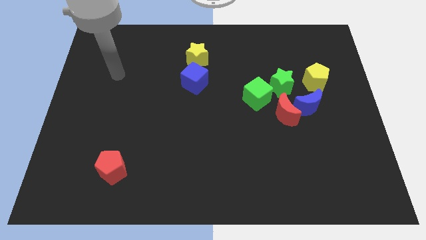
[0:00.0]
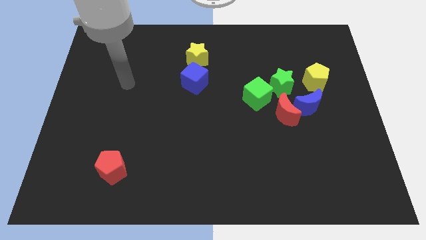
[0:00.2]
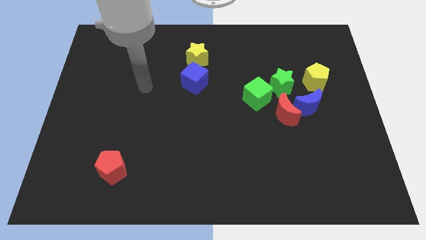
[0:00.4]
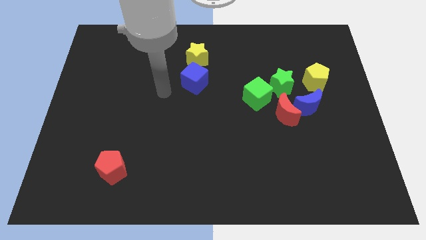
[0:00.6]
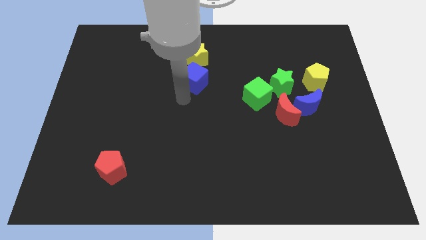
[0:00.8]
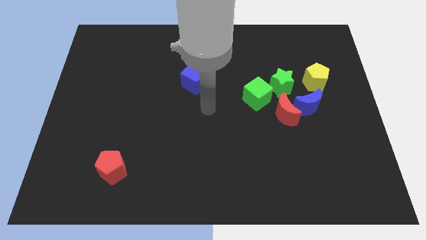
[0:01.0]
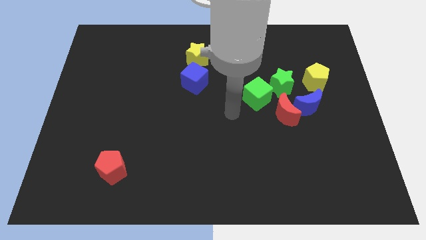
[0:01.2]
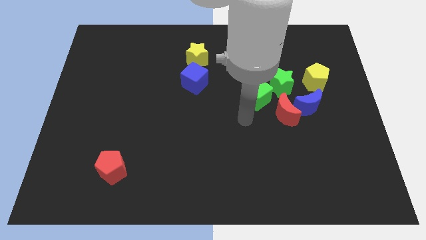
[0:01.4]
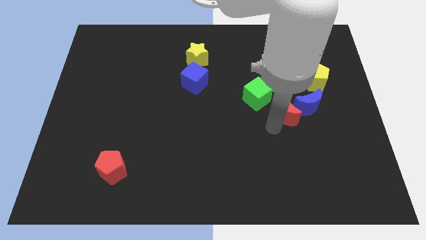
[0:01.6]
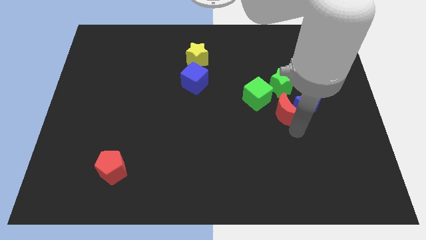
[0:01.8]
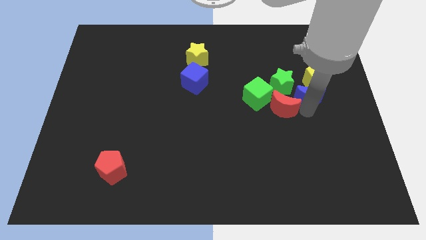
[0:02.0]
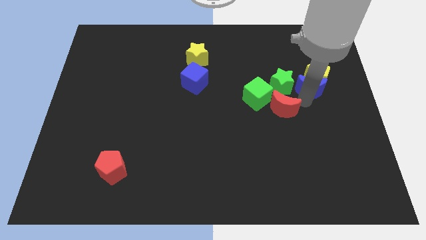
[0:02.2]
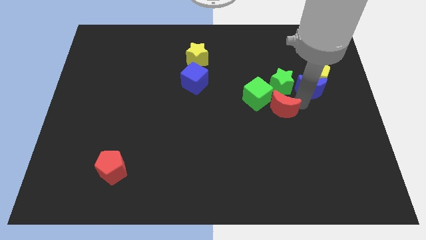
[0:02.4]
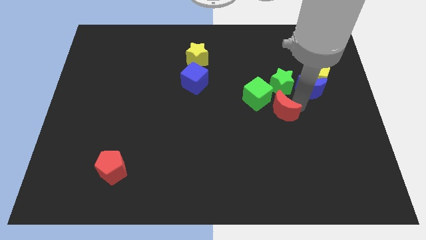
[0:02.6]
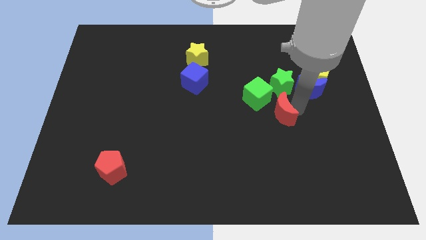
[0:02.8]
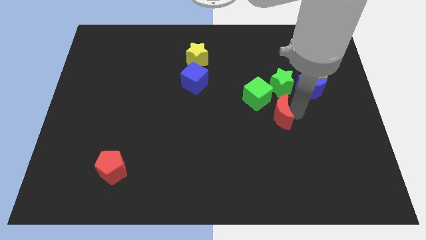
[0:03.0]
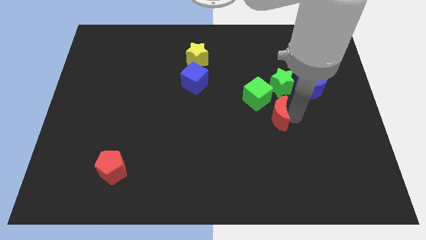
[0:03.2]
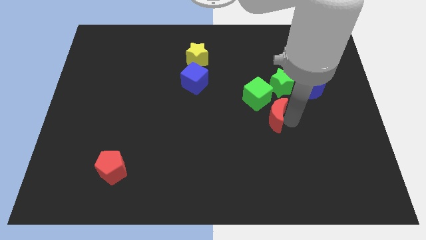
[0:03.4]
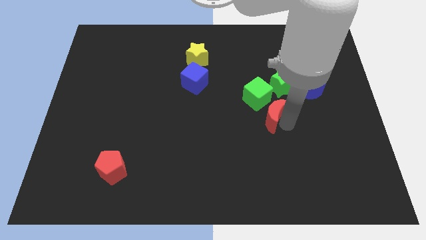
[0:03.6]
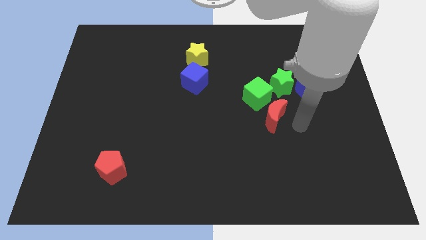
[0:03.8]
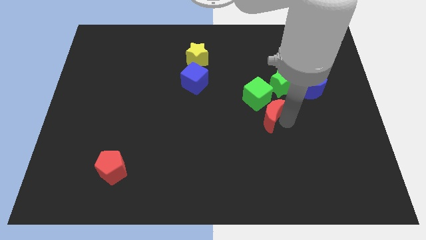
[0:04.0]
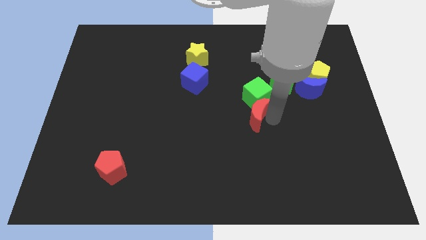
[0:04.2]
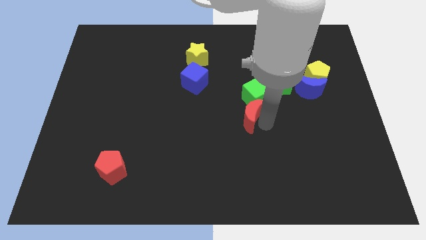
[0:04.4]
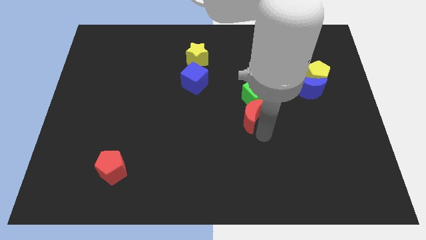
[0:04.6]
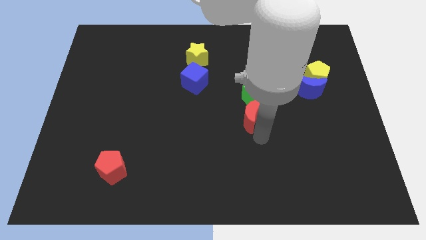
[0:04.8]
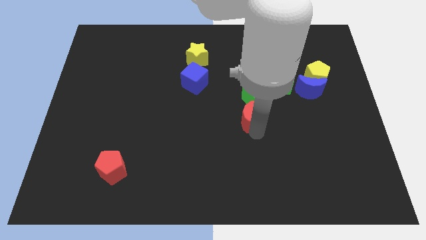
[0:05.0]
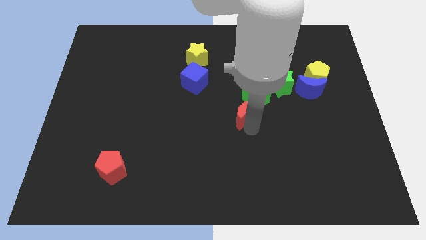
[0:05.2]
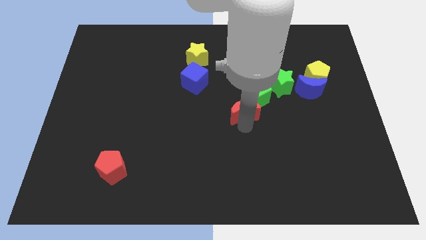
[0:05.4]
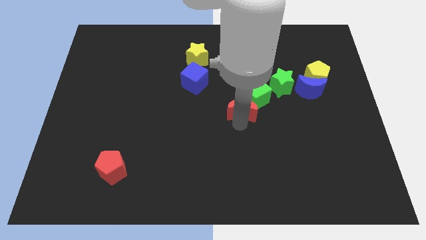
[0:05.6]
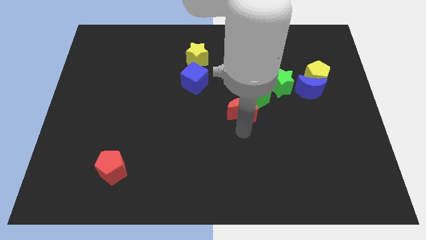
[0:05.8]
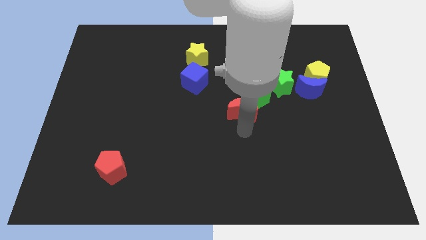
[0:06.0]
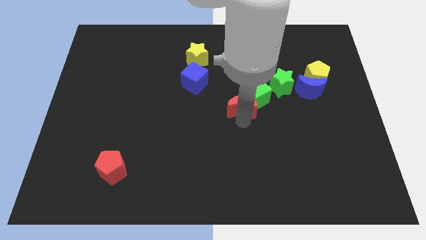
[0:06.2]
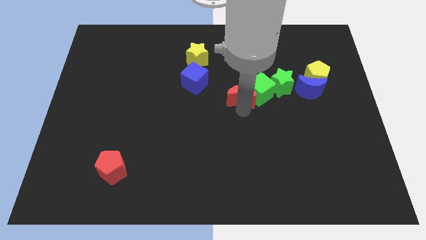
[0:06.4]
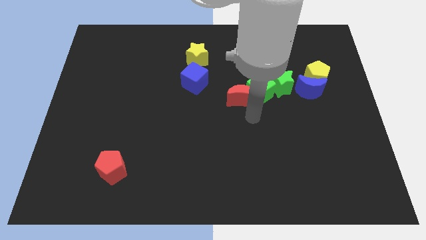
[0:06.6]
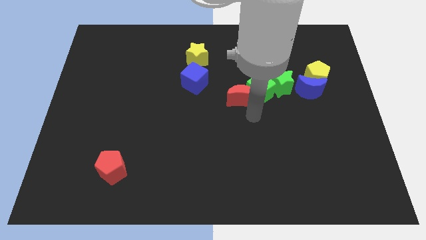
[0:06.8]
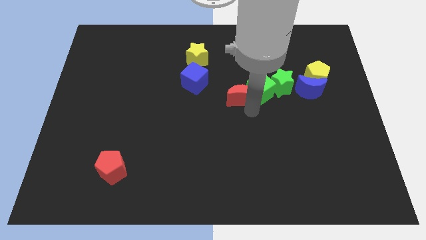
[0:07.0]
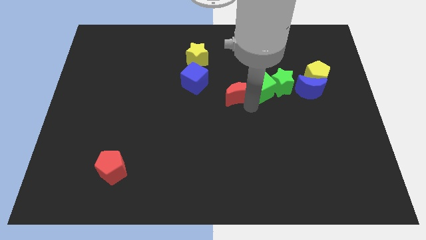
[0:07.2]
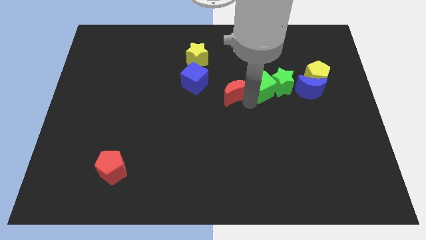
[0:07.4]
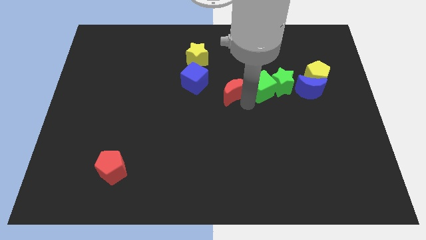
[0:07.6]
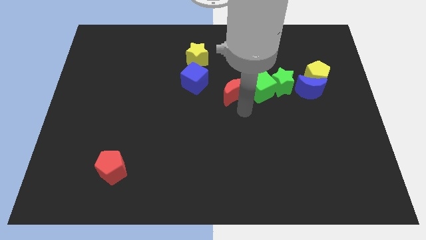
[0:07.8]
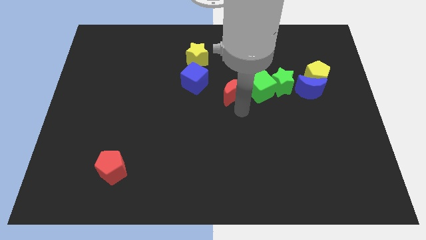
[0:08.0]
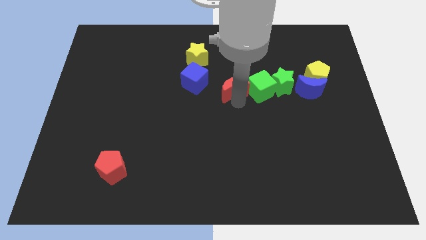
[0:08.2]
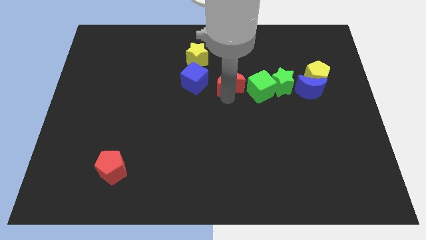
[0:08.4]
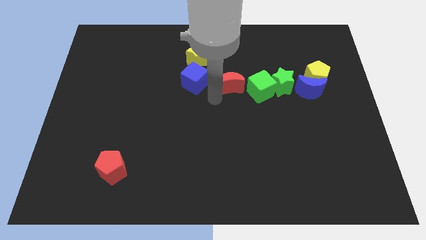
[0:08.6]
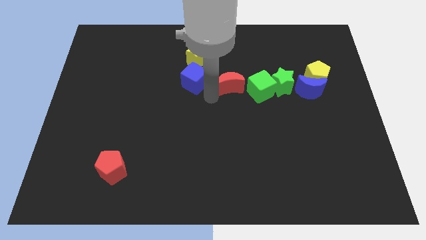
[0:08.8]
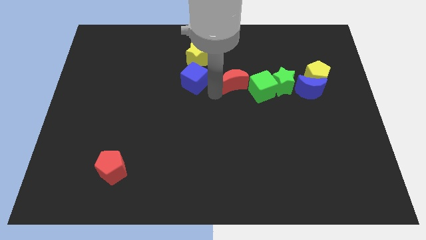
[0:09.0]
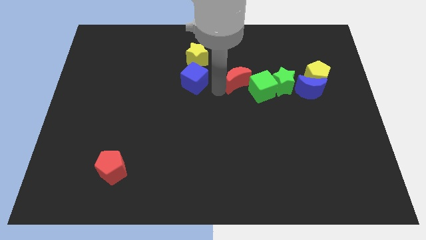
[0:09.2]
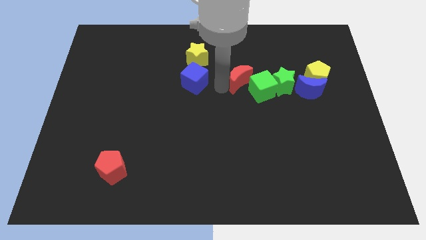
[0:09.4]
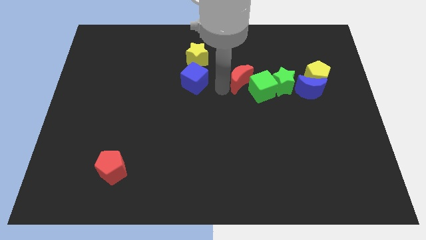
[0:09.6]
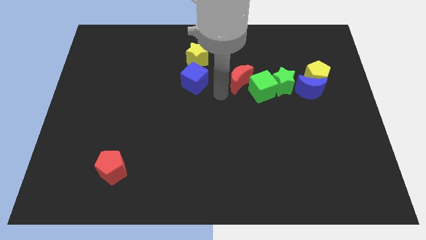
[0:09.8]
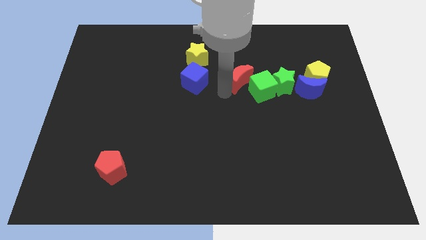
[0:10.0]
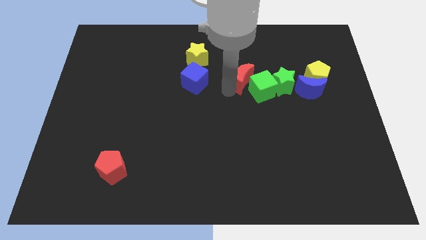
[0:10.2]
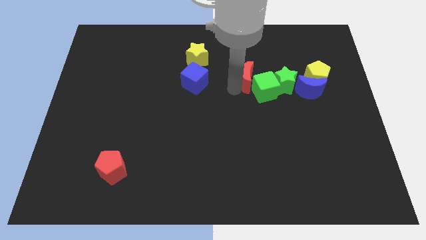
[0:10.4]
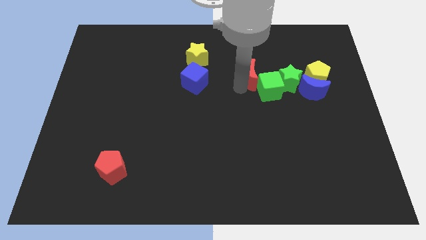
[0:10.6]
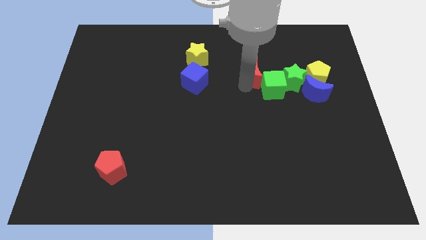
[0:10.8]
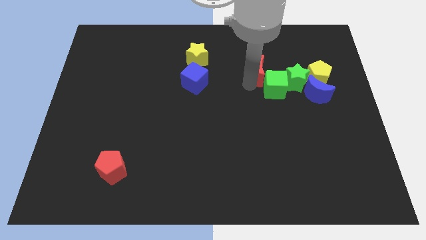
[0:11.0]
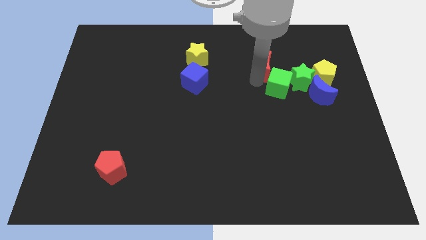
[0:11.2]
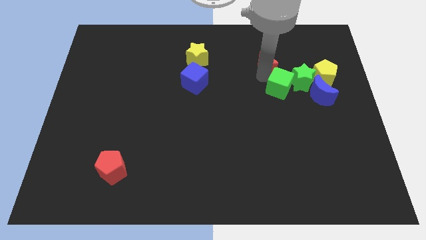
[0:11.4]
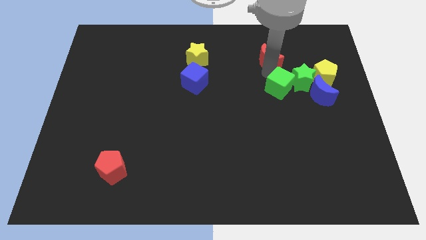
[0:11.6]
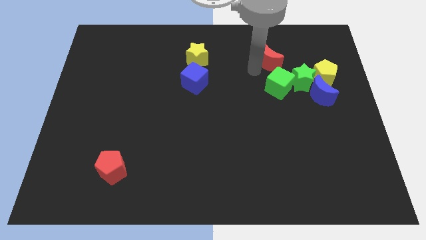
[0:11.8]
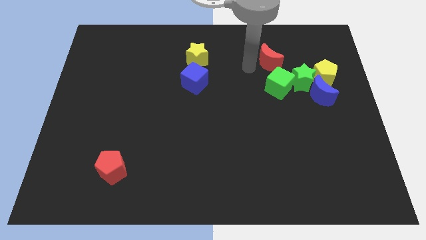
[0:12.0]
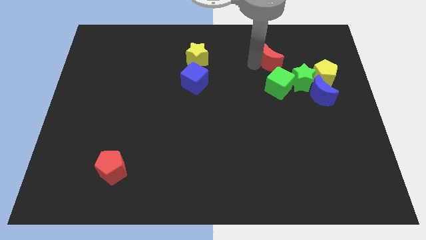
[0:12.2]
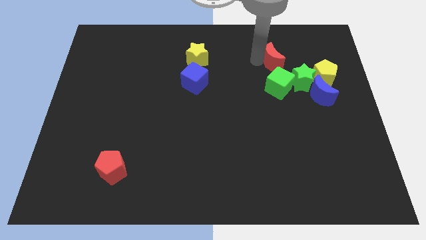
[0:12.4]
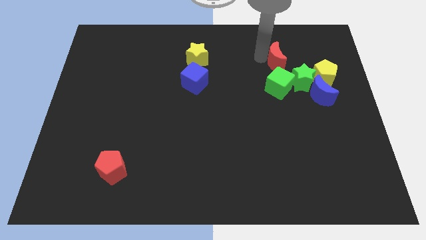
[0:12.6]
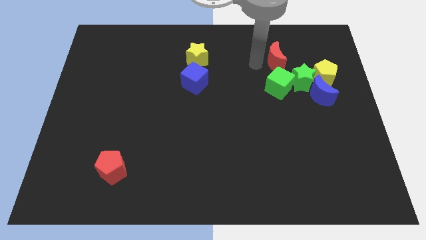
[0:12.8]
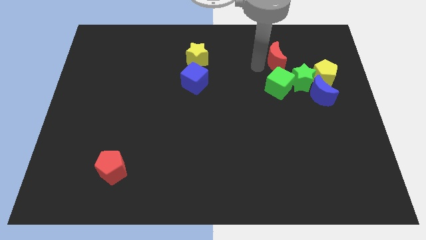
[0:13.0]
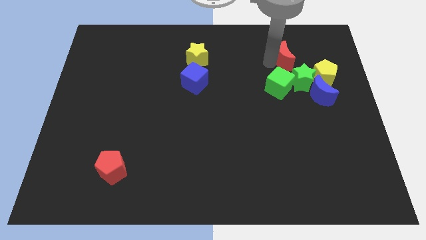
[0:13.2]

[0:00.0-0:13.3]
push the red moon above the green star

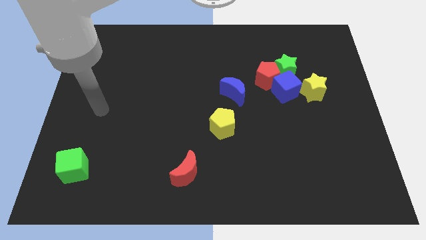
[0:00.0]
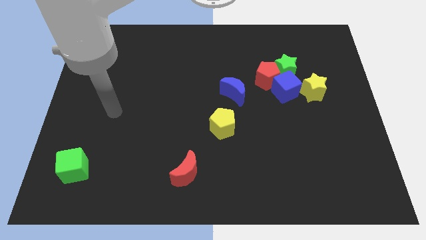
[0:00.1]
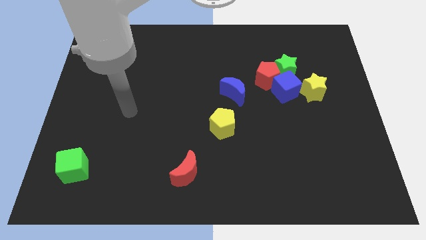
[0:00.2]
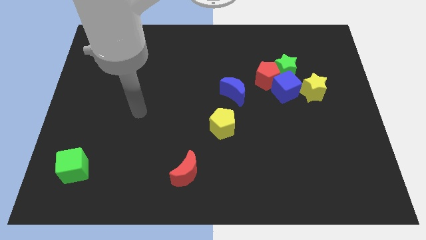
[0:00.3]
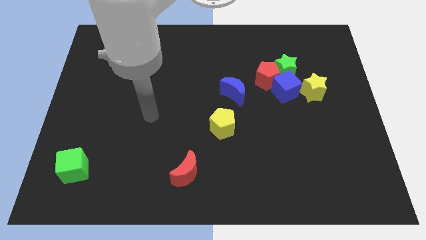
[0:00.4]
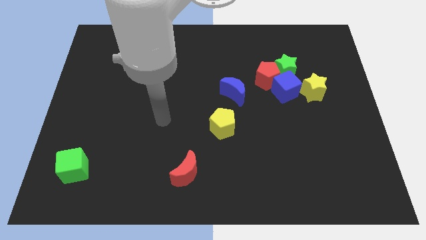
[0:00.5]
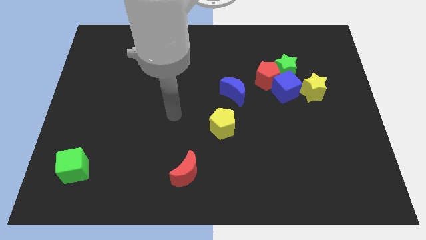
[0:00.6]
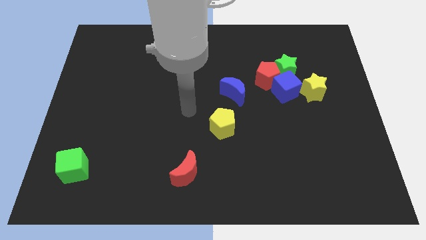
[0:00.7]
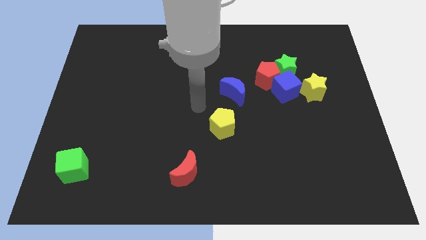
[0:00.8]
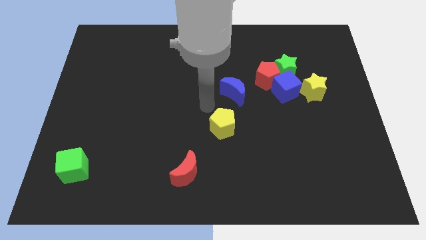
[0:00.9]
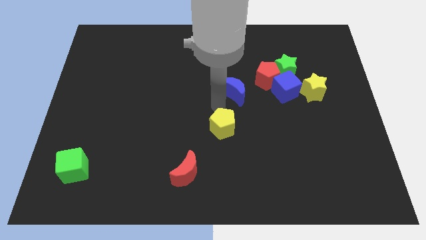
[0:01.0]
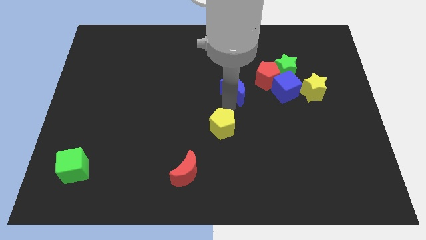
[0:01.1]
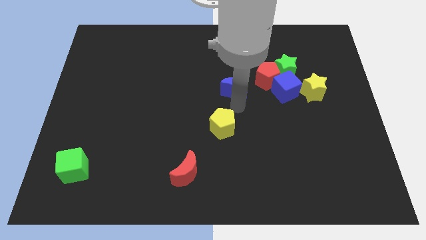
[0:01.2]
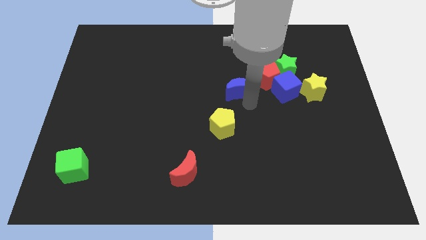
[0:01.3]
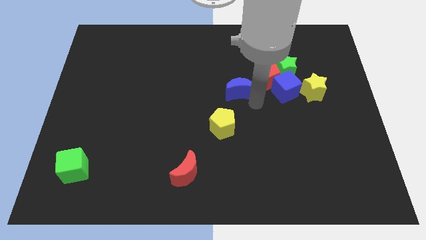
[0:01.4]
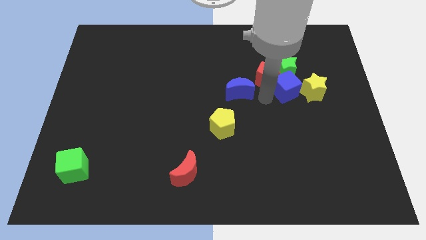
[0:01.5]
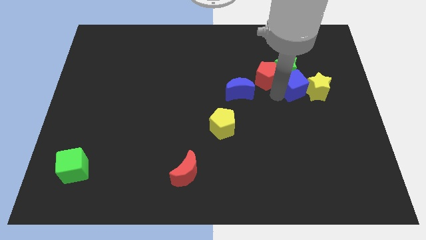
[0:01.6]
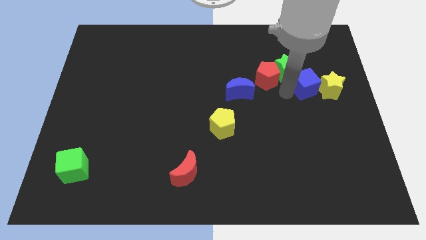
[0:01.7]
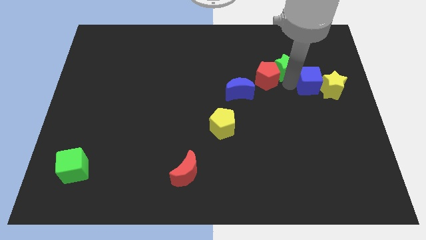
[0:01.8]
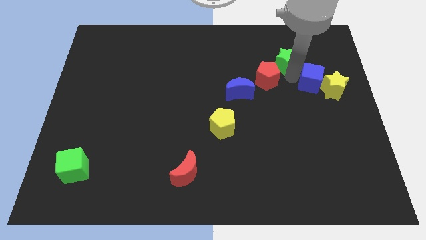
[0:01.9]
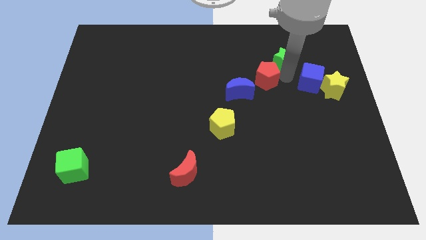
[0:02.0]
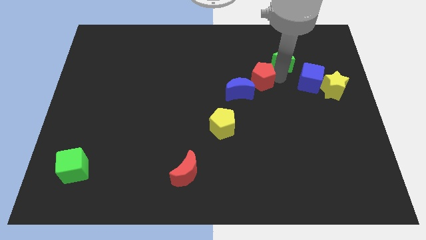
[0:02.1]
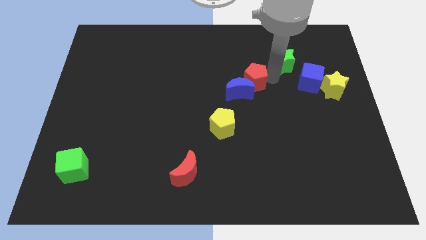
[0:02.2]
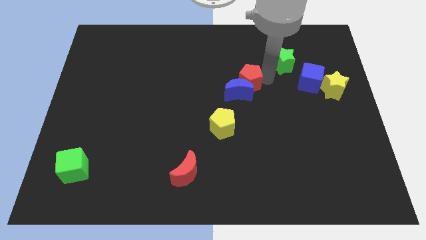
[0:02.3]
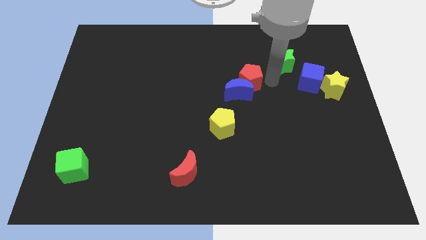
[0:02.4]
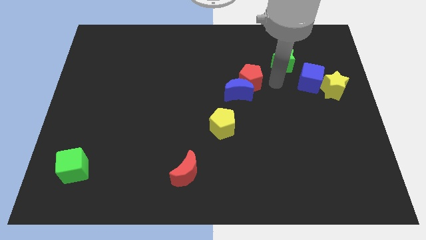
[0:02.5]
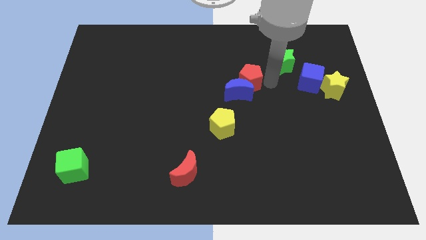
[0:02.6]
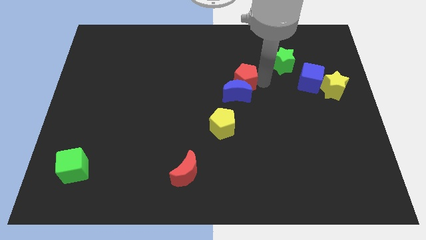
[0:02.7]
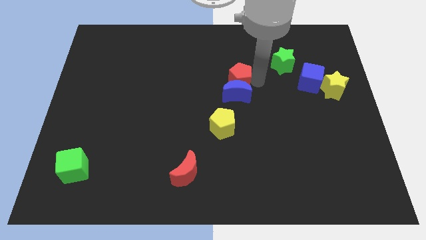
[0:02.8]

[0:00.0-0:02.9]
move the red pentagon diagonally up and to the left of the blue moon
